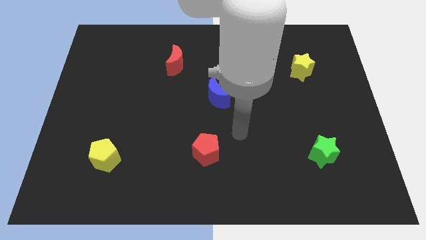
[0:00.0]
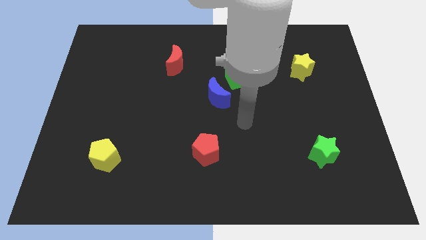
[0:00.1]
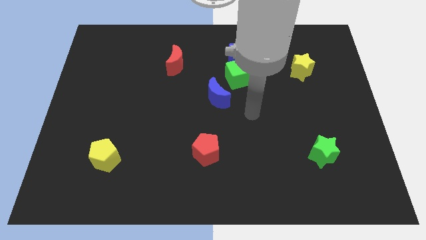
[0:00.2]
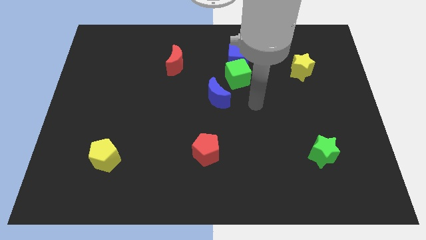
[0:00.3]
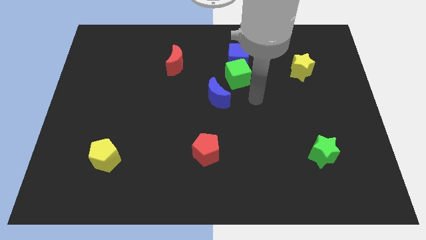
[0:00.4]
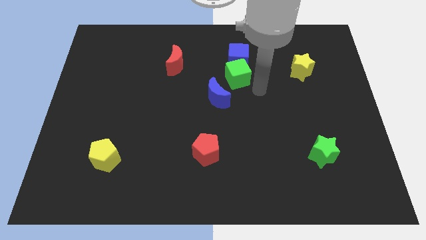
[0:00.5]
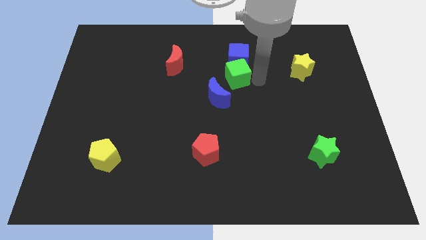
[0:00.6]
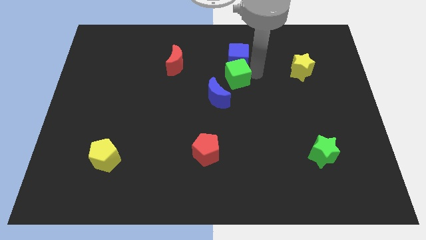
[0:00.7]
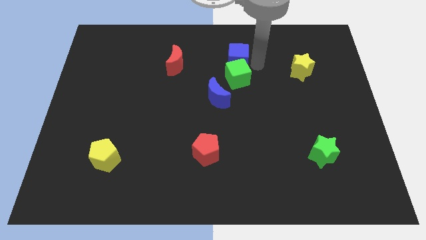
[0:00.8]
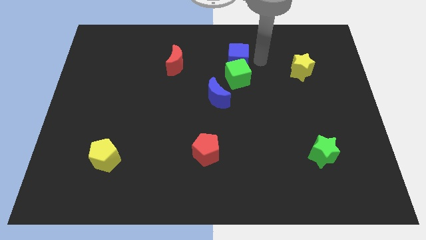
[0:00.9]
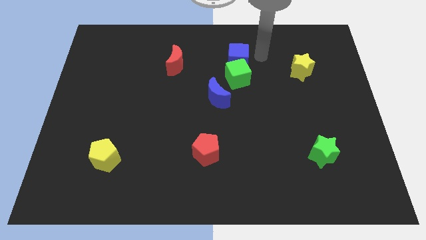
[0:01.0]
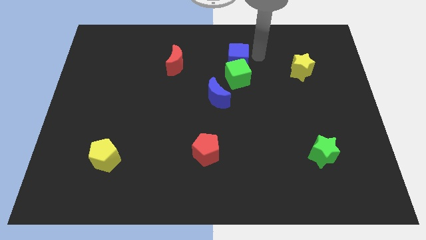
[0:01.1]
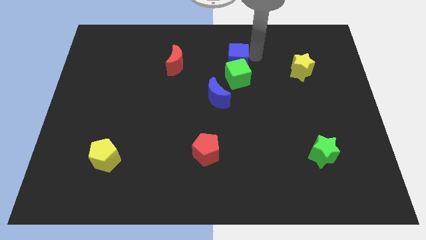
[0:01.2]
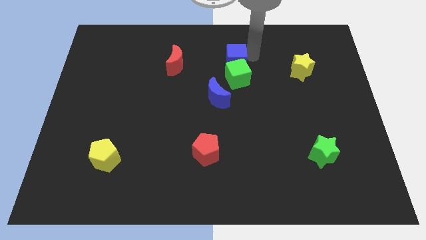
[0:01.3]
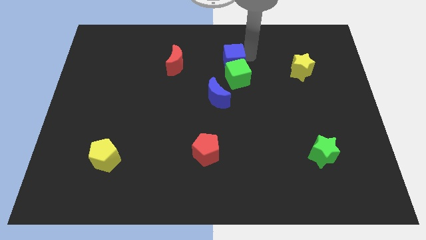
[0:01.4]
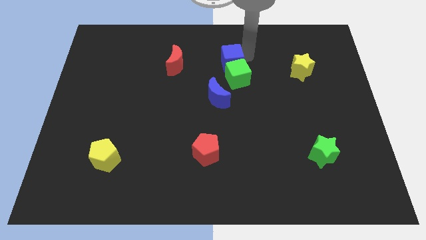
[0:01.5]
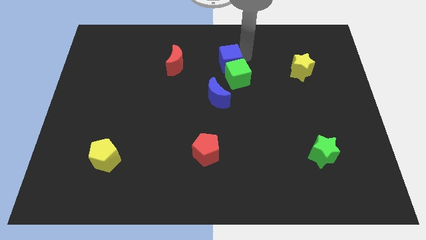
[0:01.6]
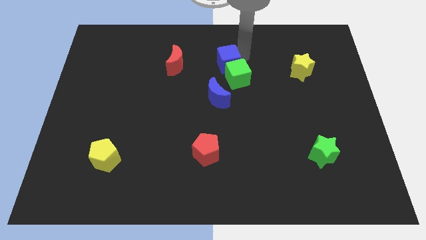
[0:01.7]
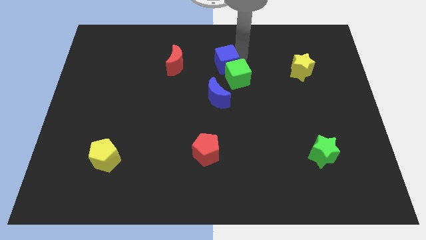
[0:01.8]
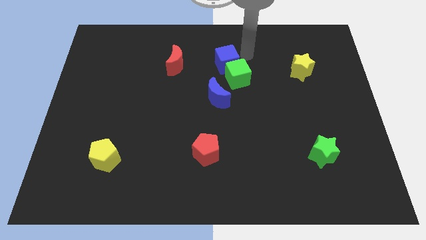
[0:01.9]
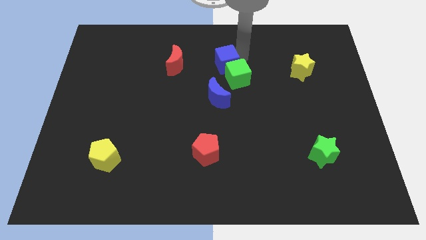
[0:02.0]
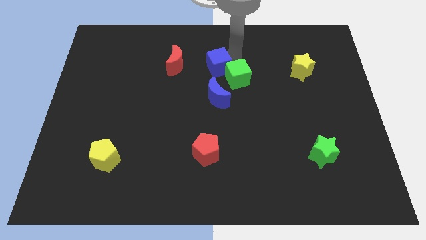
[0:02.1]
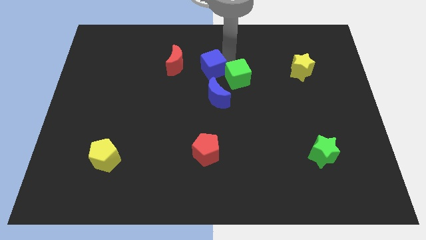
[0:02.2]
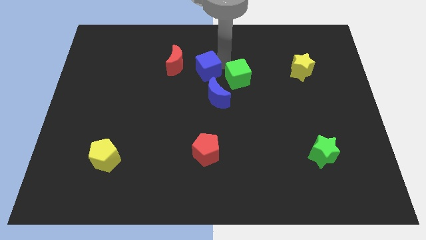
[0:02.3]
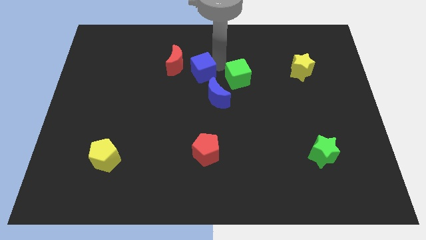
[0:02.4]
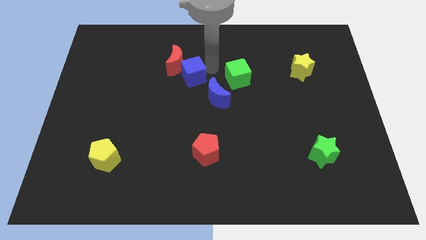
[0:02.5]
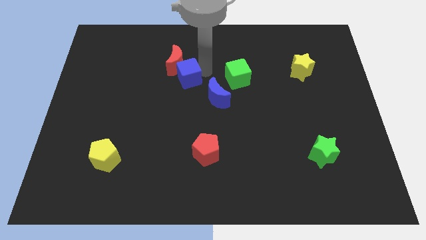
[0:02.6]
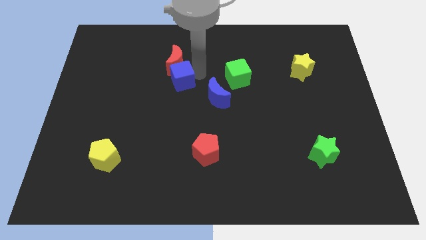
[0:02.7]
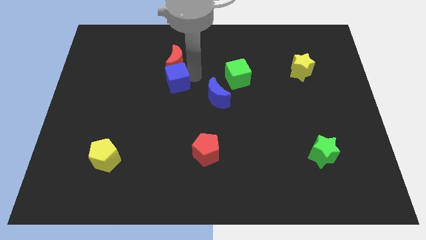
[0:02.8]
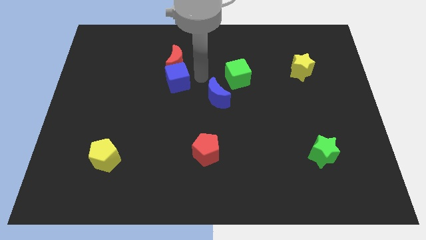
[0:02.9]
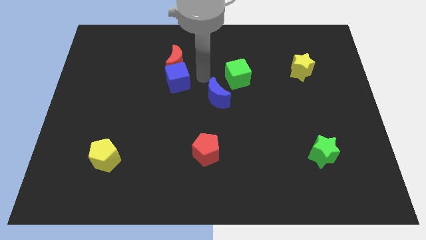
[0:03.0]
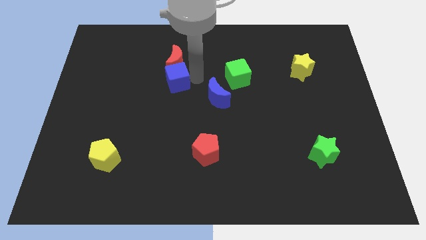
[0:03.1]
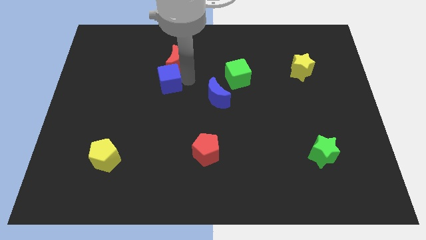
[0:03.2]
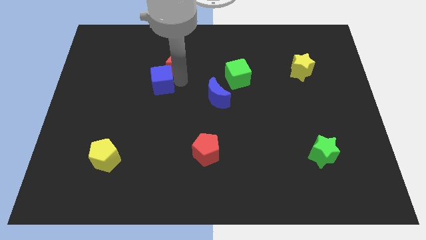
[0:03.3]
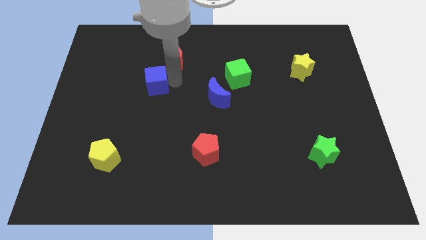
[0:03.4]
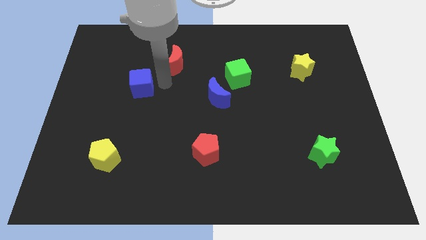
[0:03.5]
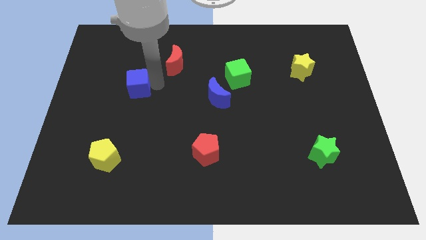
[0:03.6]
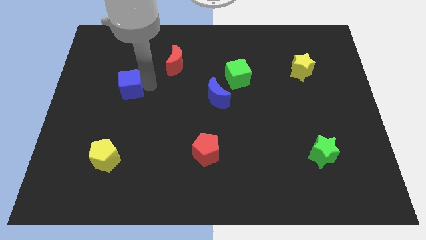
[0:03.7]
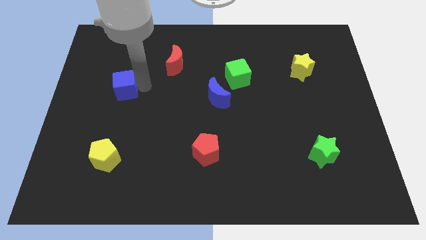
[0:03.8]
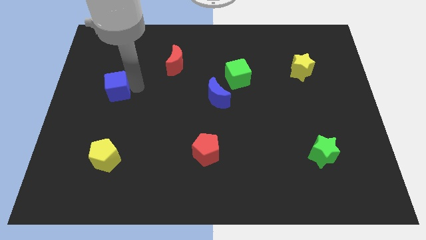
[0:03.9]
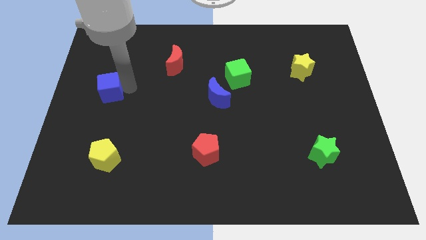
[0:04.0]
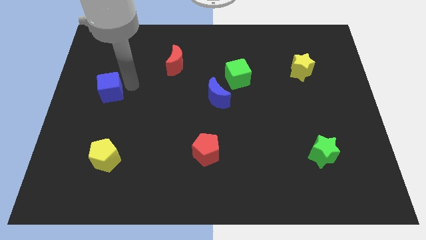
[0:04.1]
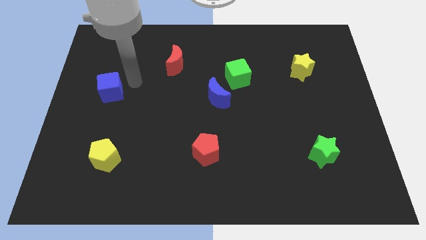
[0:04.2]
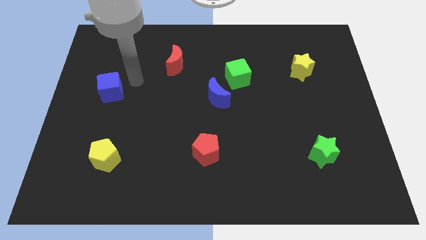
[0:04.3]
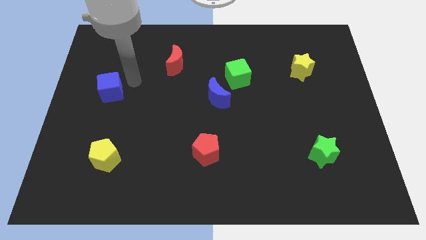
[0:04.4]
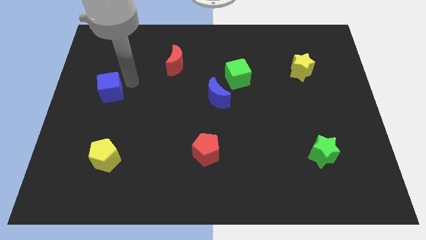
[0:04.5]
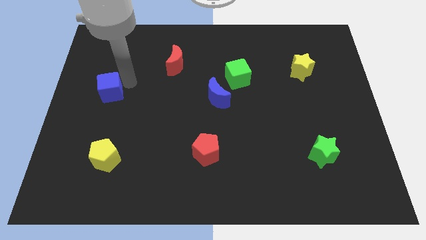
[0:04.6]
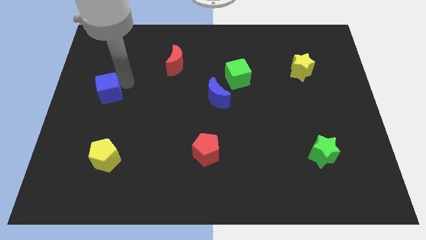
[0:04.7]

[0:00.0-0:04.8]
push the blue cube to the left side of the board

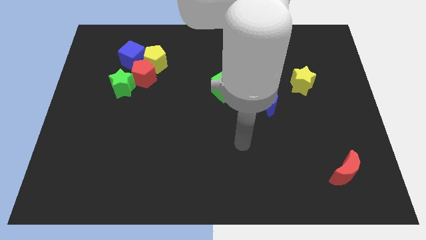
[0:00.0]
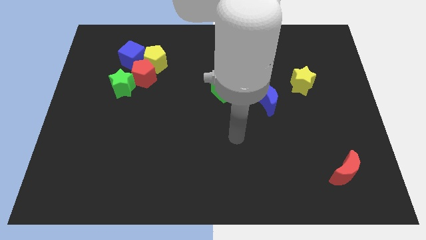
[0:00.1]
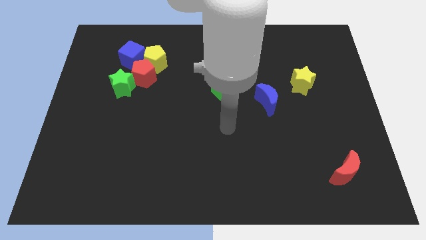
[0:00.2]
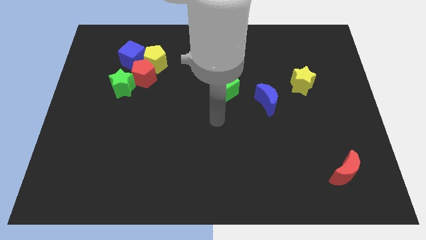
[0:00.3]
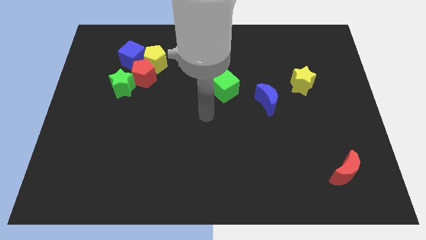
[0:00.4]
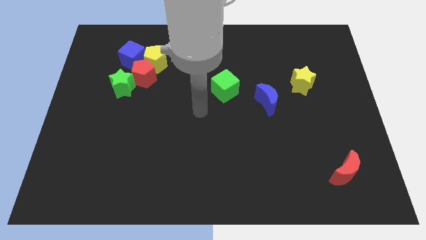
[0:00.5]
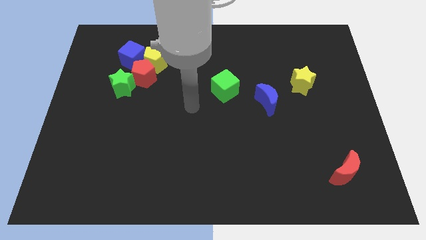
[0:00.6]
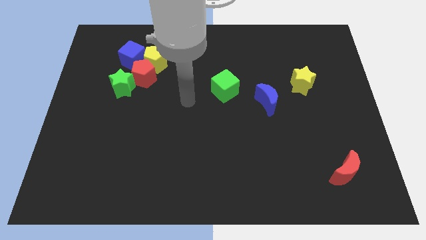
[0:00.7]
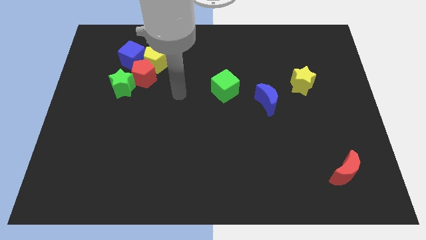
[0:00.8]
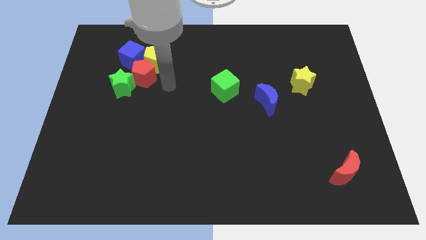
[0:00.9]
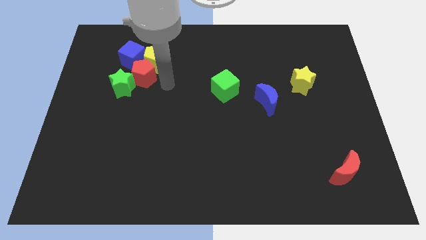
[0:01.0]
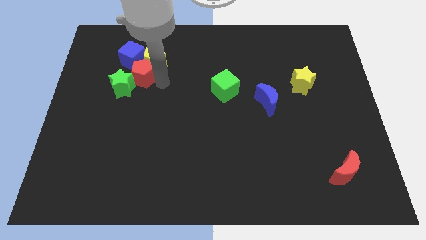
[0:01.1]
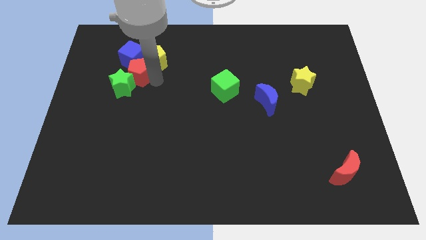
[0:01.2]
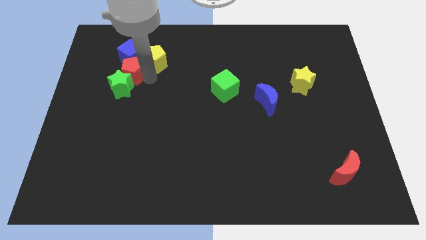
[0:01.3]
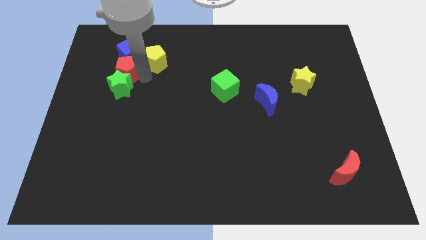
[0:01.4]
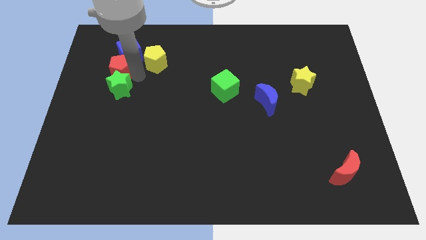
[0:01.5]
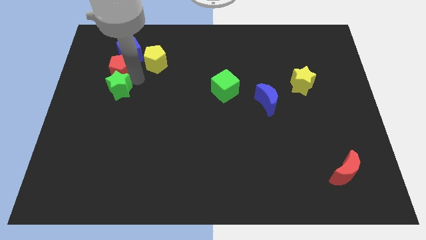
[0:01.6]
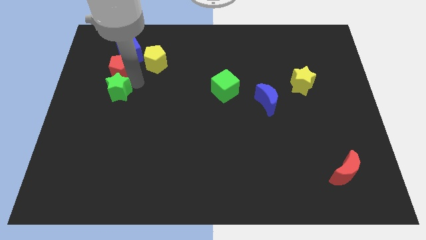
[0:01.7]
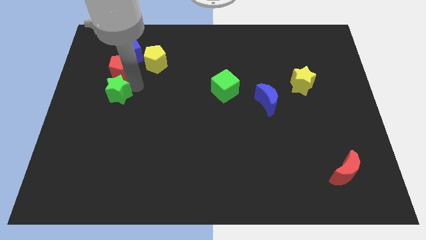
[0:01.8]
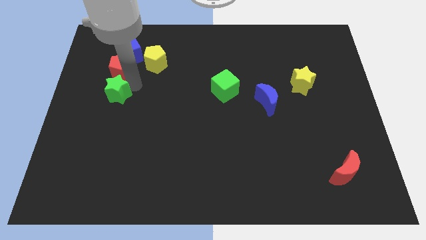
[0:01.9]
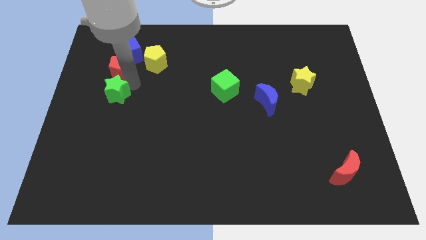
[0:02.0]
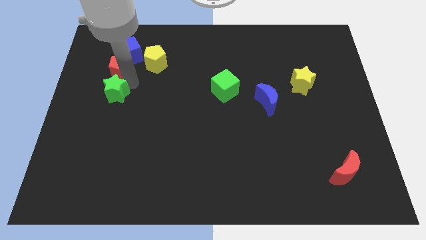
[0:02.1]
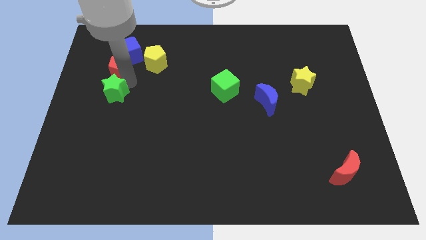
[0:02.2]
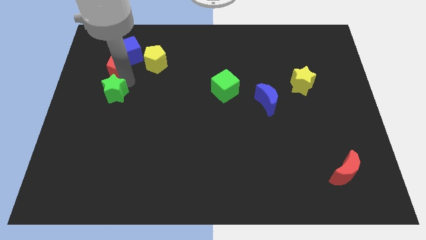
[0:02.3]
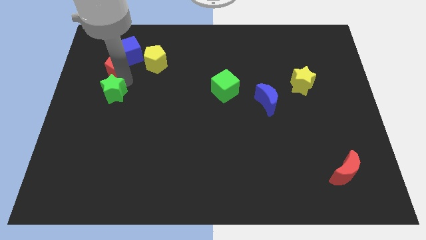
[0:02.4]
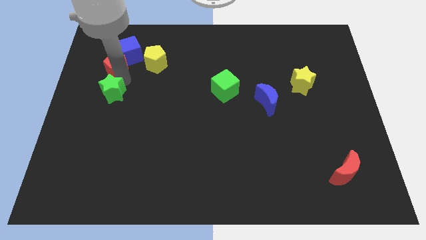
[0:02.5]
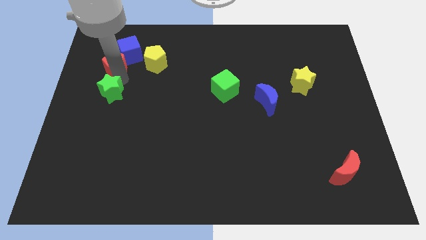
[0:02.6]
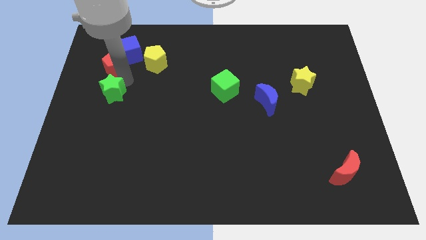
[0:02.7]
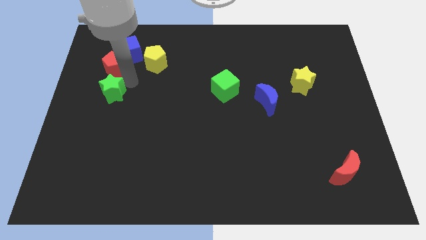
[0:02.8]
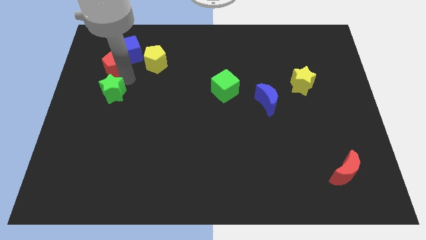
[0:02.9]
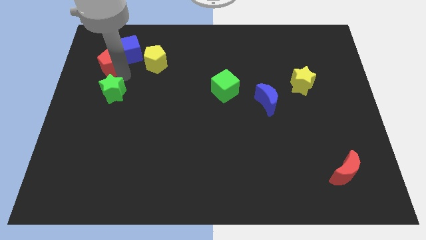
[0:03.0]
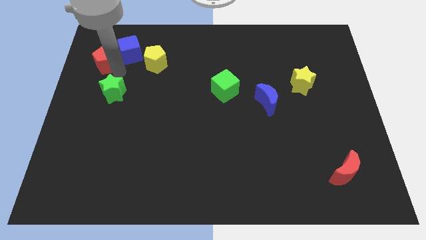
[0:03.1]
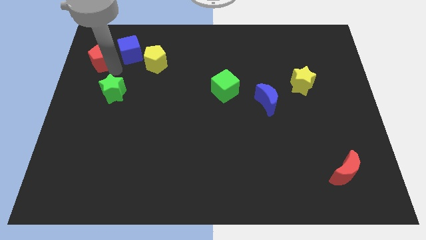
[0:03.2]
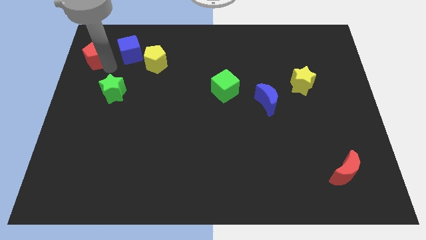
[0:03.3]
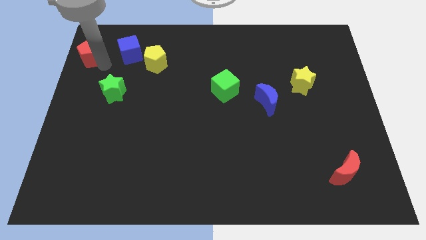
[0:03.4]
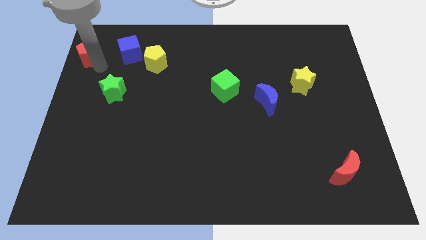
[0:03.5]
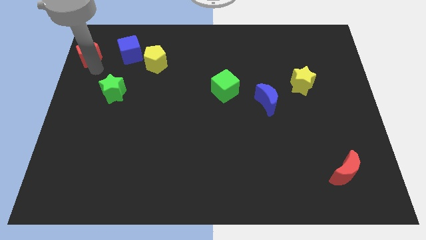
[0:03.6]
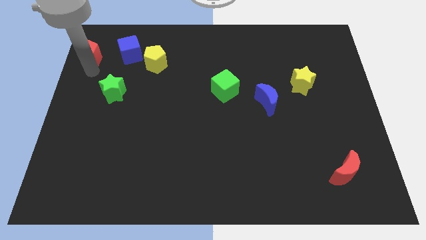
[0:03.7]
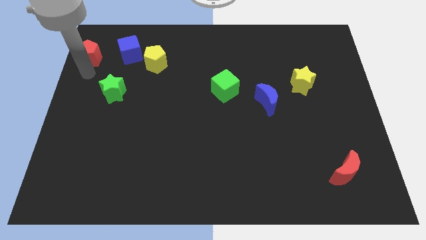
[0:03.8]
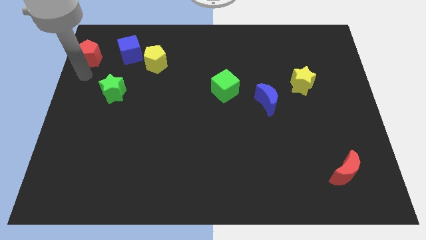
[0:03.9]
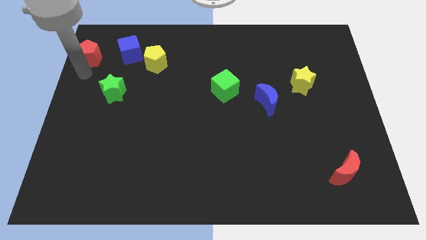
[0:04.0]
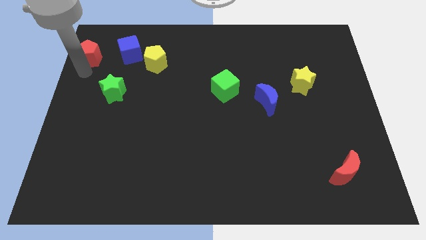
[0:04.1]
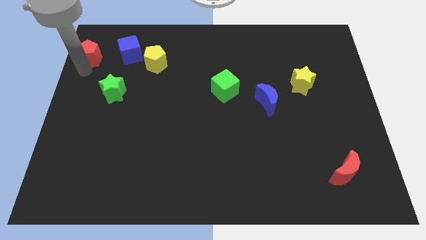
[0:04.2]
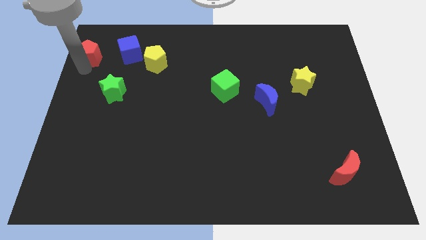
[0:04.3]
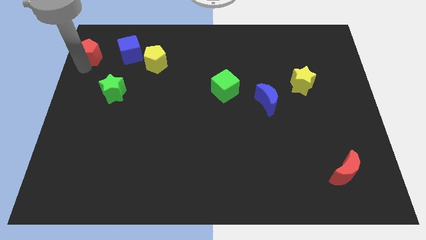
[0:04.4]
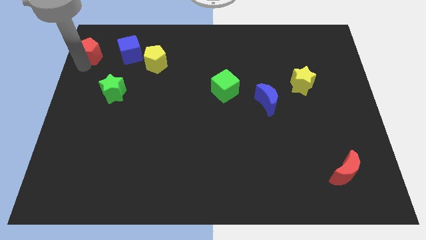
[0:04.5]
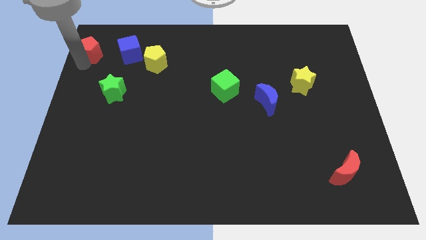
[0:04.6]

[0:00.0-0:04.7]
put the red pentagon to the top left
